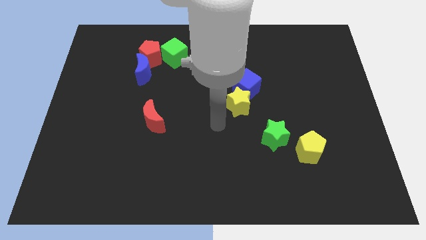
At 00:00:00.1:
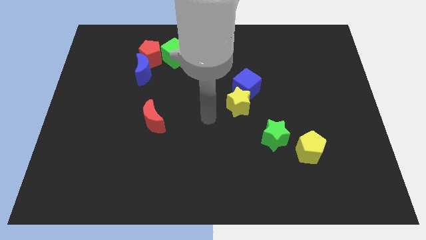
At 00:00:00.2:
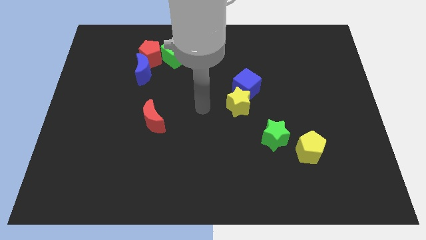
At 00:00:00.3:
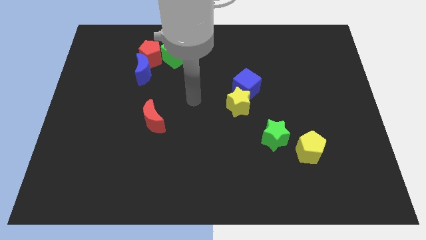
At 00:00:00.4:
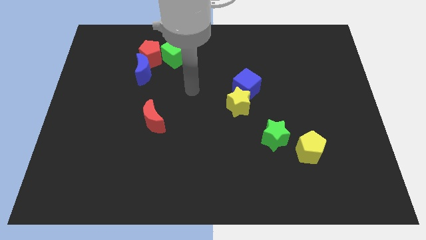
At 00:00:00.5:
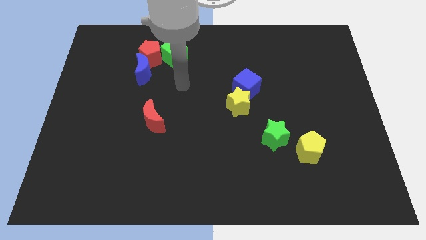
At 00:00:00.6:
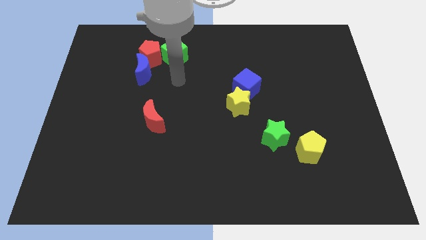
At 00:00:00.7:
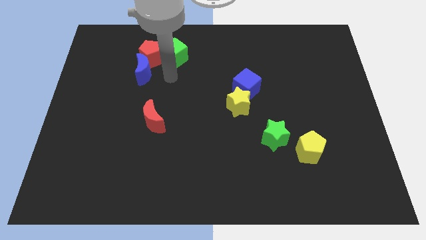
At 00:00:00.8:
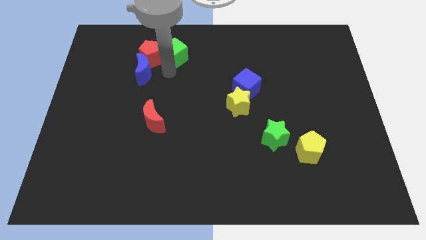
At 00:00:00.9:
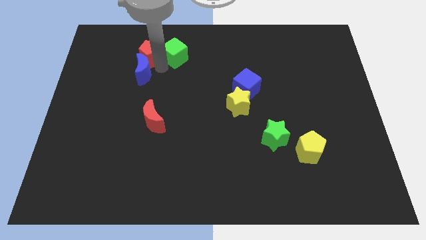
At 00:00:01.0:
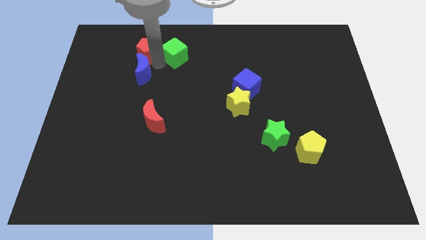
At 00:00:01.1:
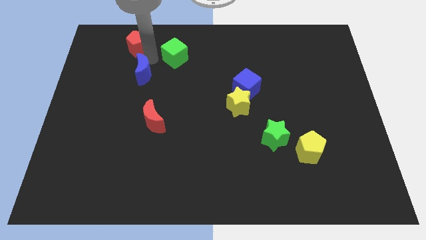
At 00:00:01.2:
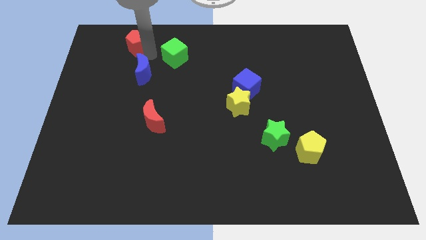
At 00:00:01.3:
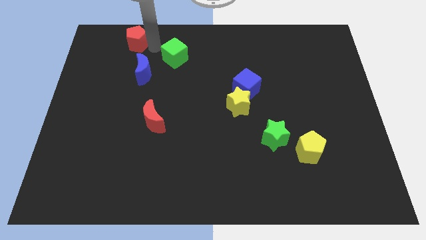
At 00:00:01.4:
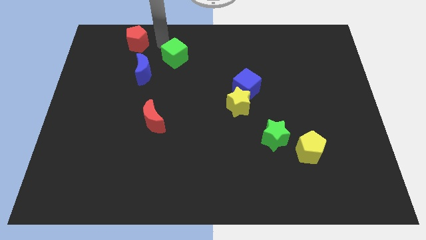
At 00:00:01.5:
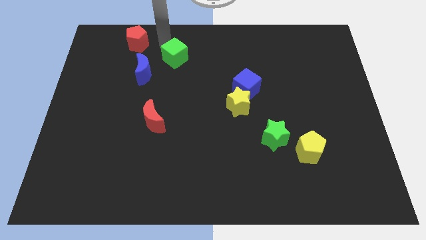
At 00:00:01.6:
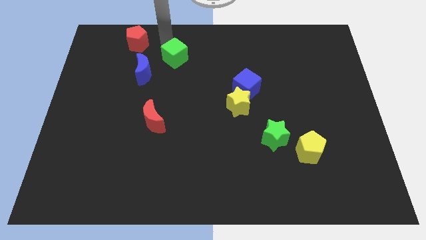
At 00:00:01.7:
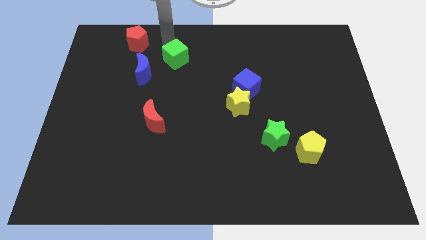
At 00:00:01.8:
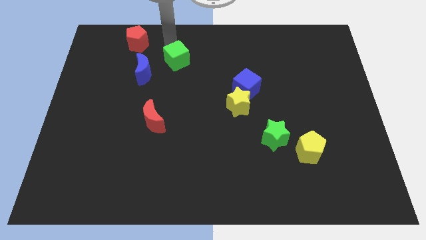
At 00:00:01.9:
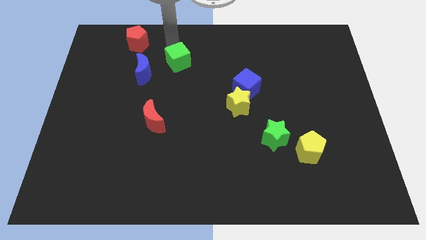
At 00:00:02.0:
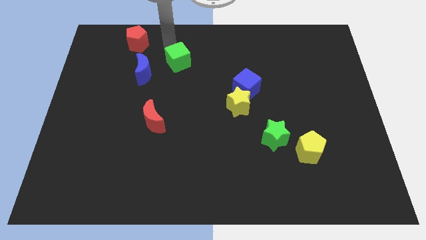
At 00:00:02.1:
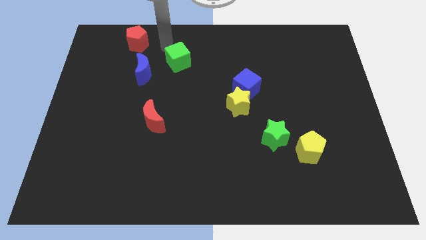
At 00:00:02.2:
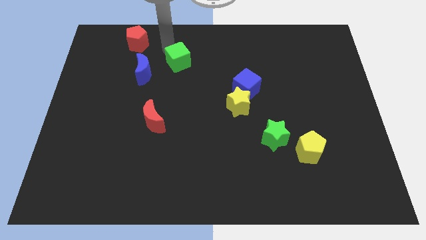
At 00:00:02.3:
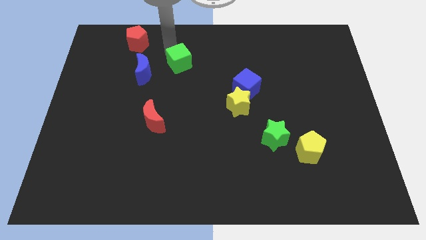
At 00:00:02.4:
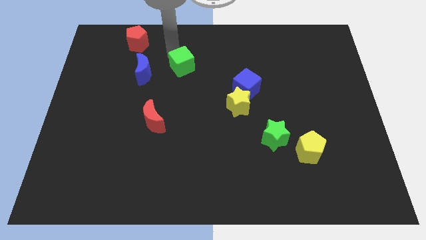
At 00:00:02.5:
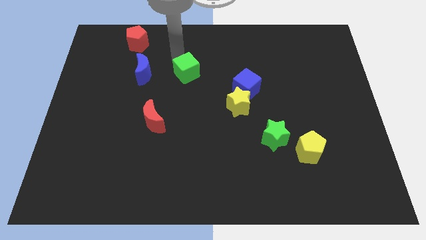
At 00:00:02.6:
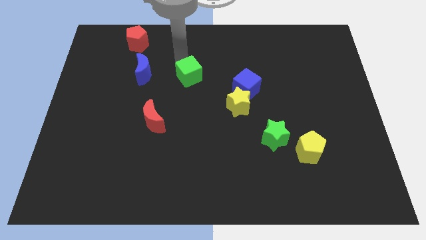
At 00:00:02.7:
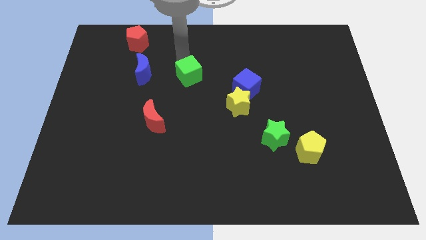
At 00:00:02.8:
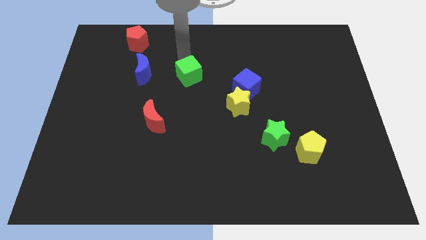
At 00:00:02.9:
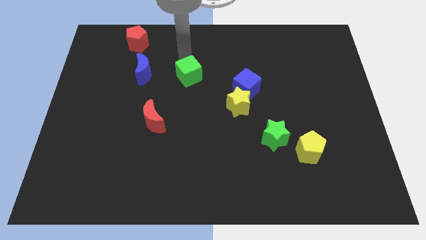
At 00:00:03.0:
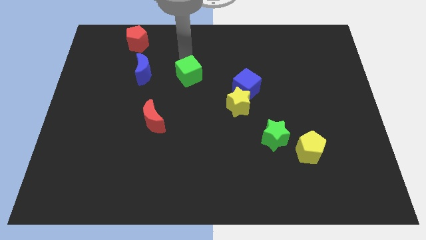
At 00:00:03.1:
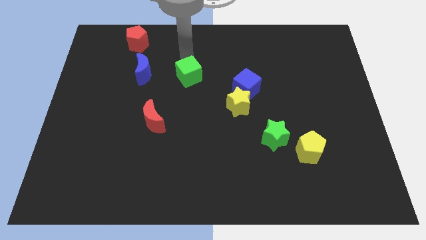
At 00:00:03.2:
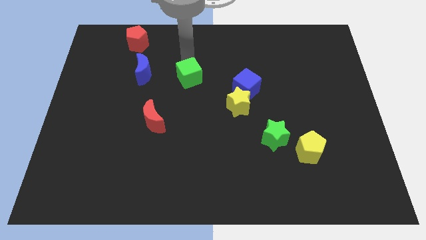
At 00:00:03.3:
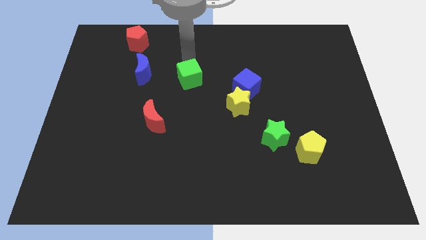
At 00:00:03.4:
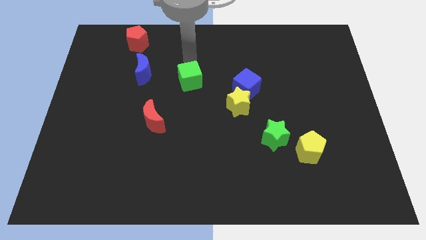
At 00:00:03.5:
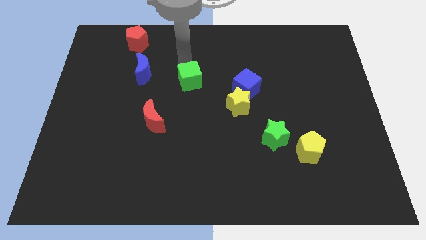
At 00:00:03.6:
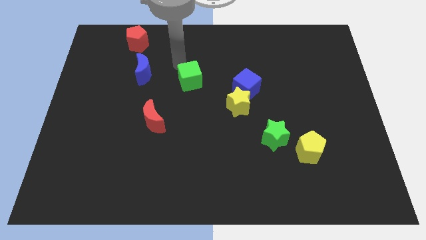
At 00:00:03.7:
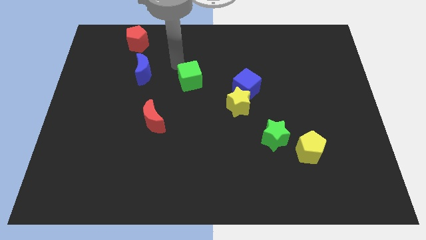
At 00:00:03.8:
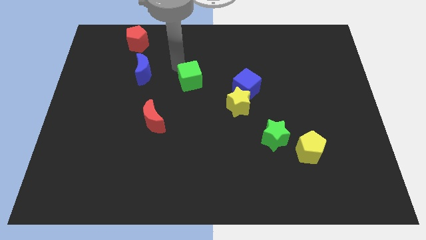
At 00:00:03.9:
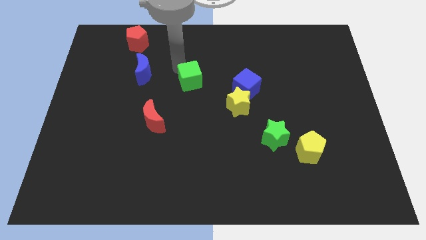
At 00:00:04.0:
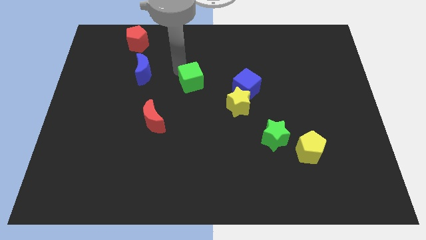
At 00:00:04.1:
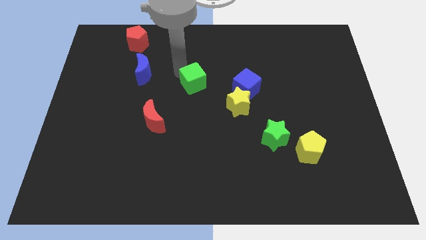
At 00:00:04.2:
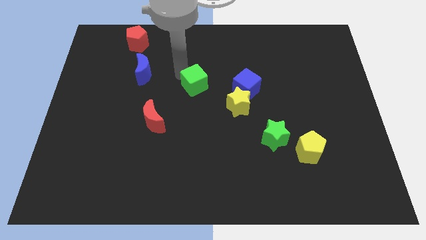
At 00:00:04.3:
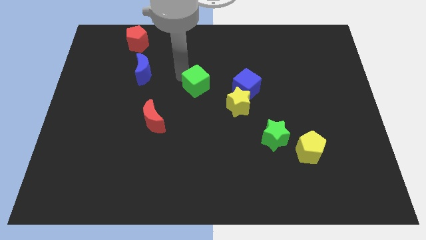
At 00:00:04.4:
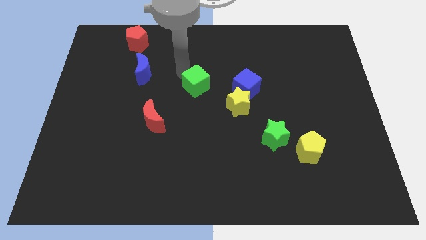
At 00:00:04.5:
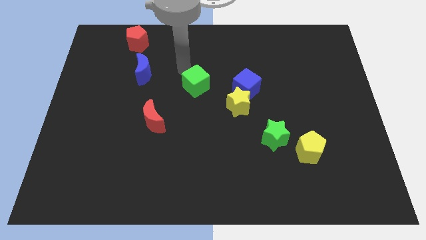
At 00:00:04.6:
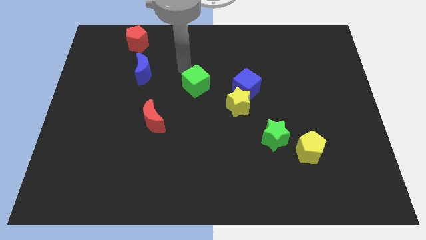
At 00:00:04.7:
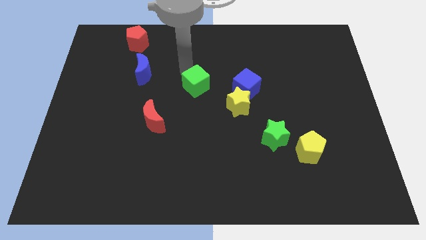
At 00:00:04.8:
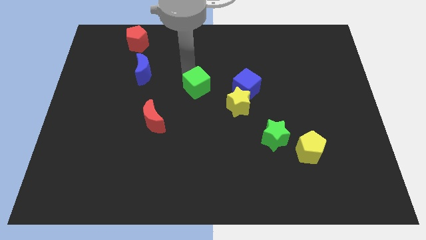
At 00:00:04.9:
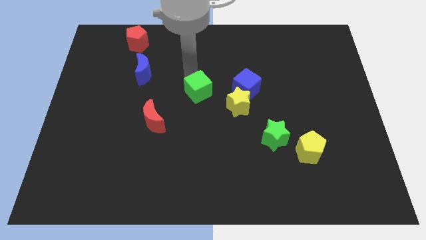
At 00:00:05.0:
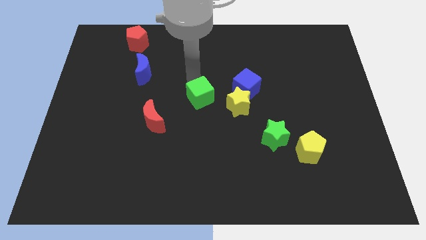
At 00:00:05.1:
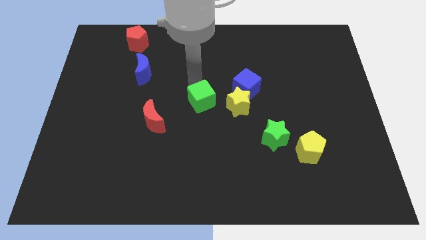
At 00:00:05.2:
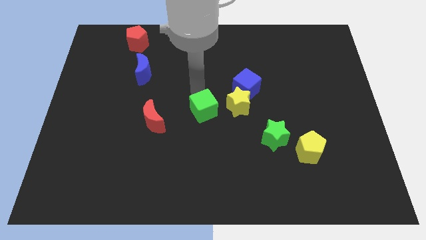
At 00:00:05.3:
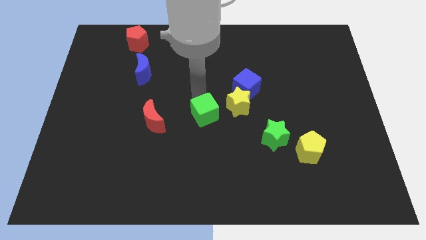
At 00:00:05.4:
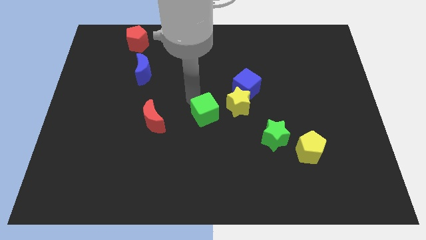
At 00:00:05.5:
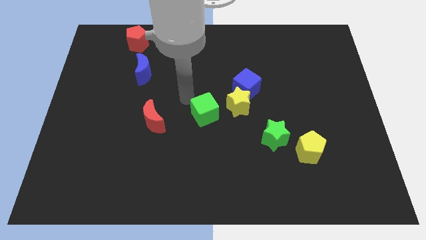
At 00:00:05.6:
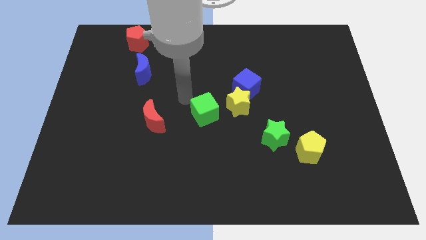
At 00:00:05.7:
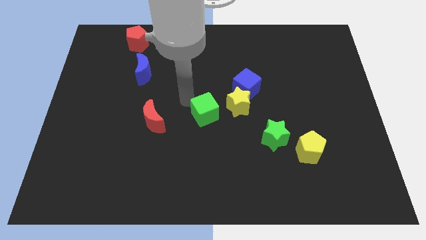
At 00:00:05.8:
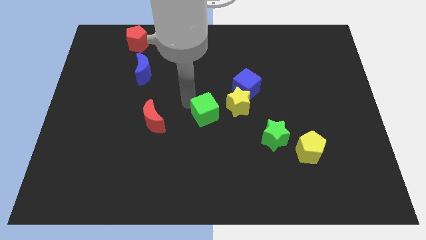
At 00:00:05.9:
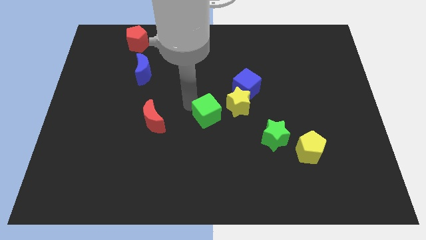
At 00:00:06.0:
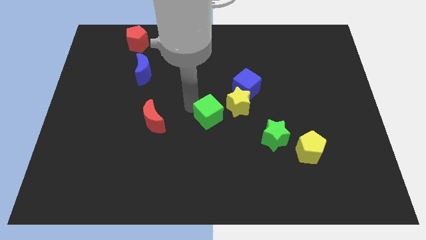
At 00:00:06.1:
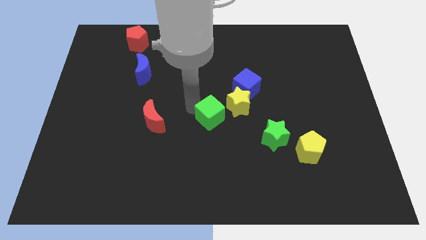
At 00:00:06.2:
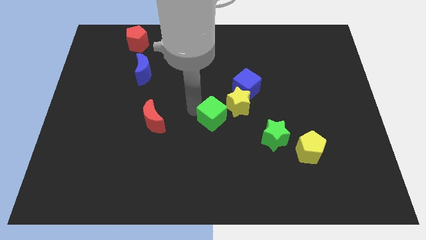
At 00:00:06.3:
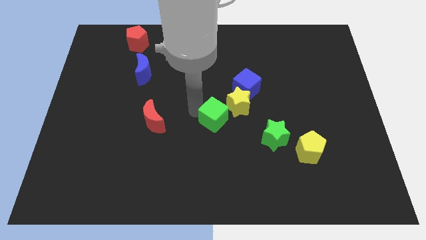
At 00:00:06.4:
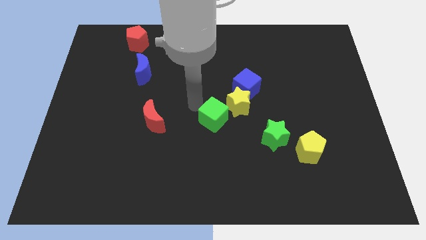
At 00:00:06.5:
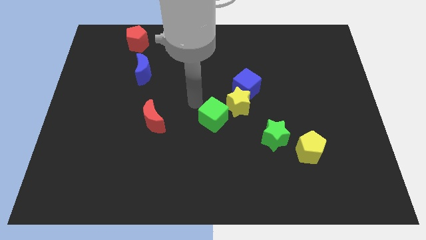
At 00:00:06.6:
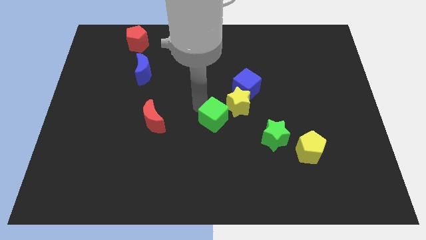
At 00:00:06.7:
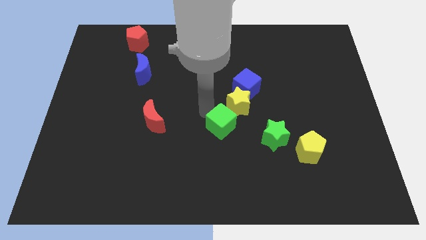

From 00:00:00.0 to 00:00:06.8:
push the green cube to the bottom of the yellow star
